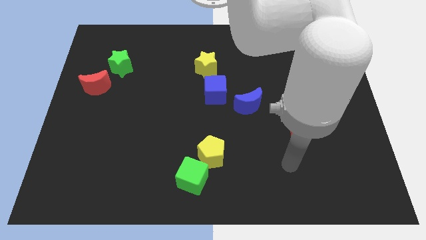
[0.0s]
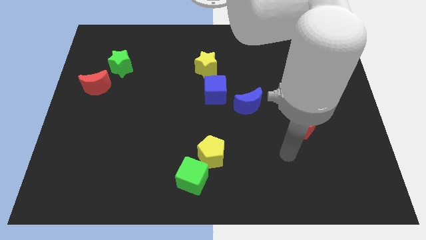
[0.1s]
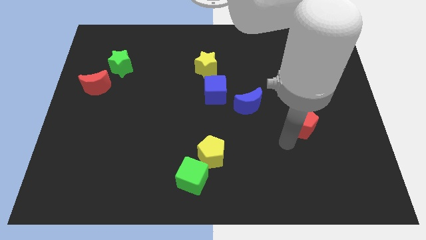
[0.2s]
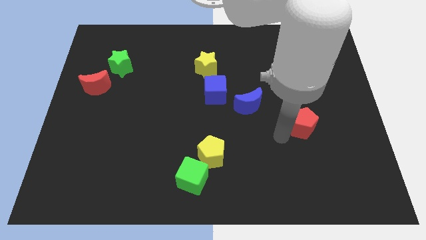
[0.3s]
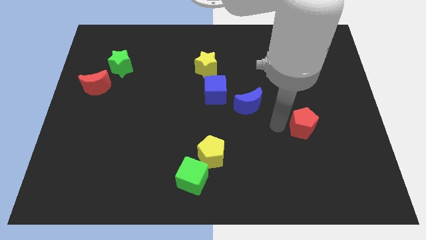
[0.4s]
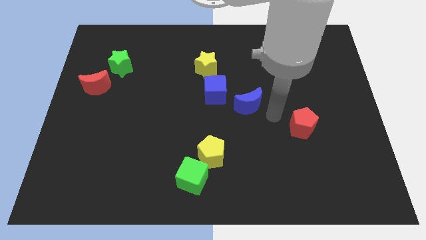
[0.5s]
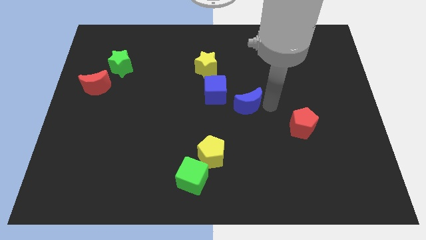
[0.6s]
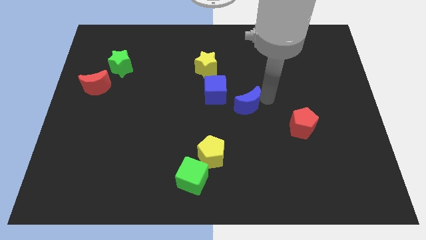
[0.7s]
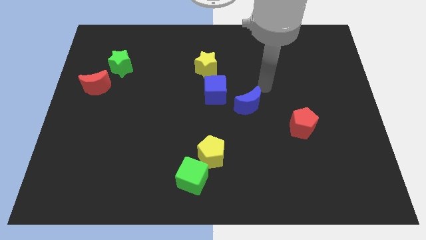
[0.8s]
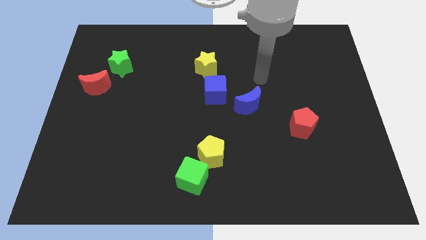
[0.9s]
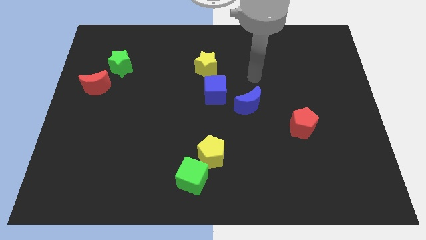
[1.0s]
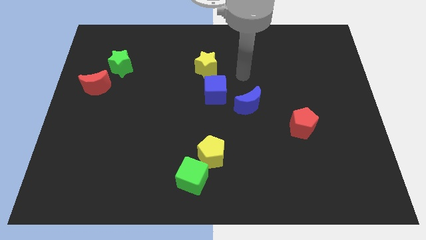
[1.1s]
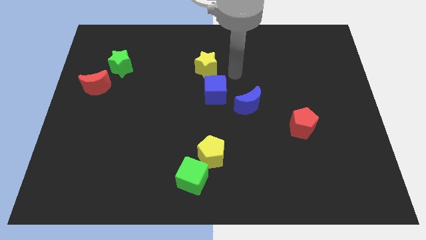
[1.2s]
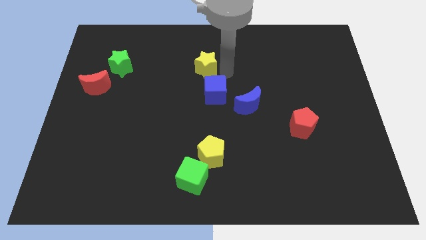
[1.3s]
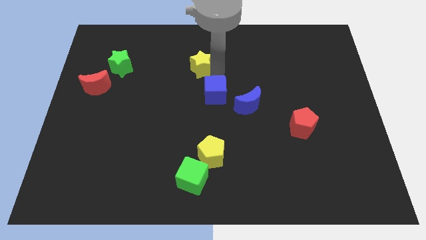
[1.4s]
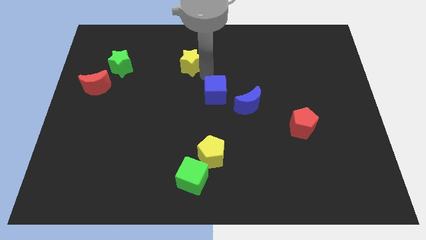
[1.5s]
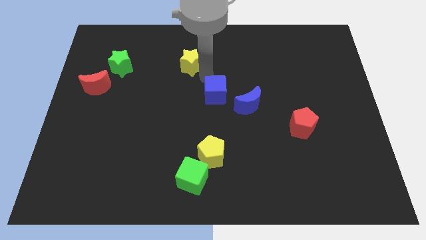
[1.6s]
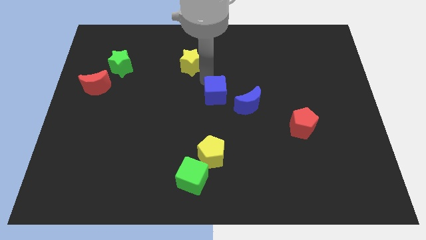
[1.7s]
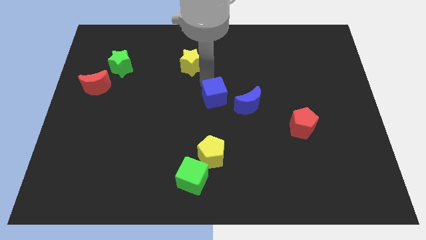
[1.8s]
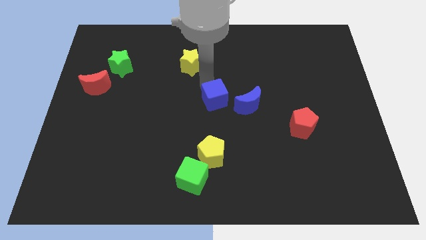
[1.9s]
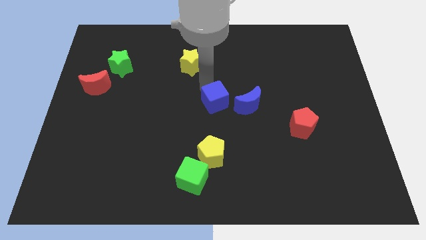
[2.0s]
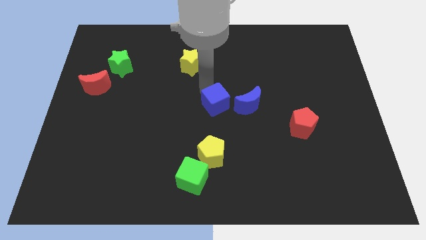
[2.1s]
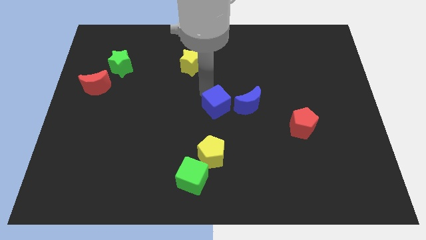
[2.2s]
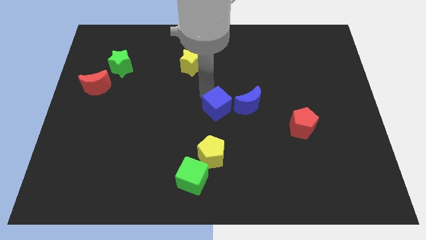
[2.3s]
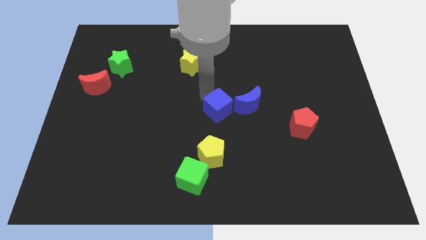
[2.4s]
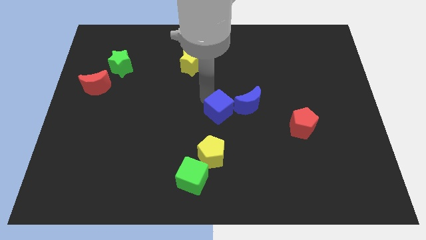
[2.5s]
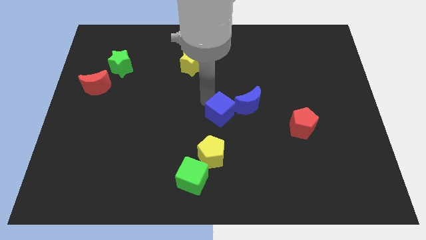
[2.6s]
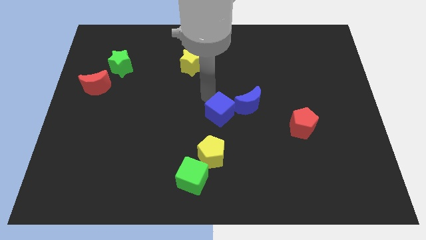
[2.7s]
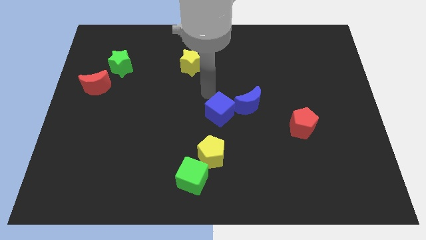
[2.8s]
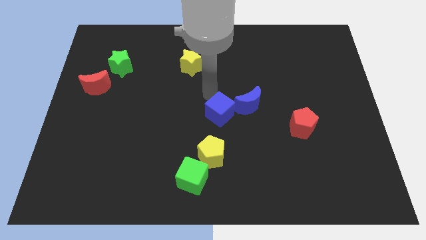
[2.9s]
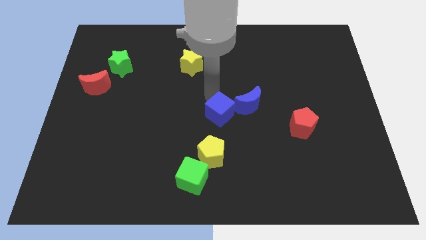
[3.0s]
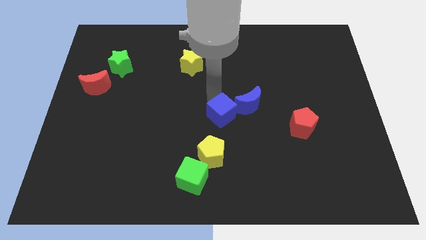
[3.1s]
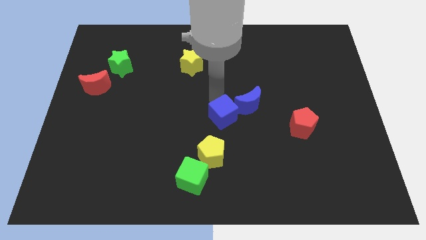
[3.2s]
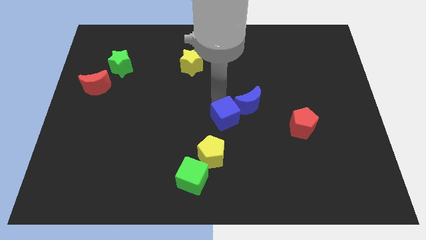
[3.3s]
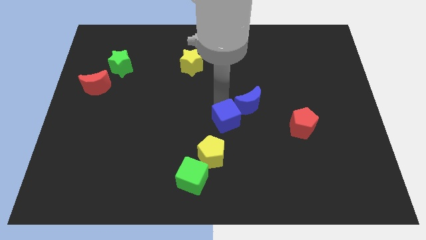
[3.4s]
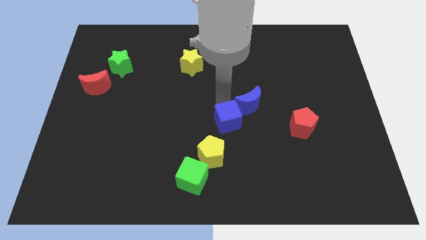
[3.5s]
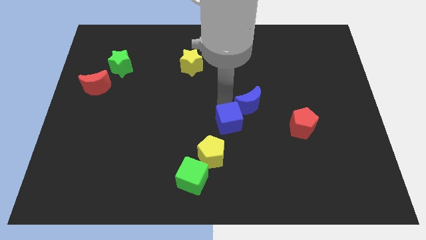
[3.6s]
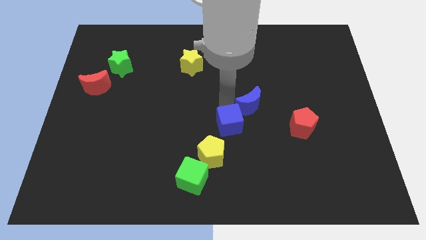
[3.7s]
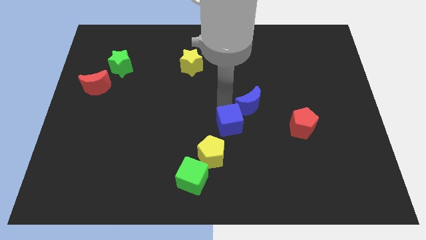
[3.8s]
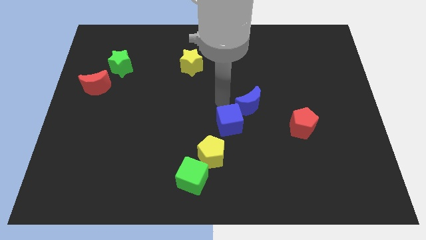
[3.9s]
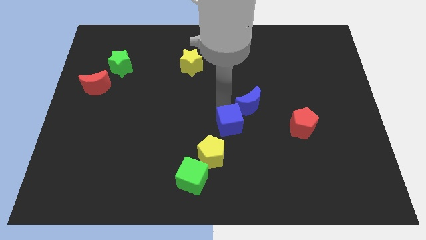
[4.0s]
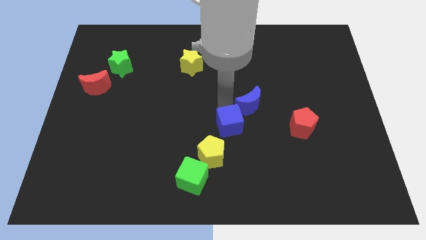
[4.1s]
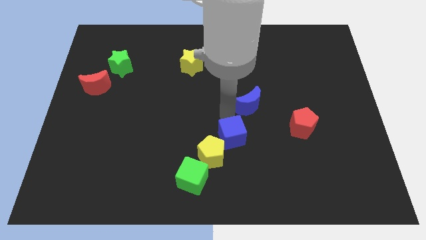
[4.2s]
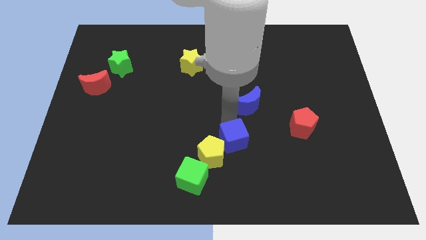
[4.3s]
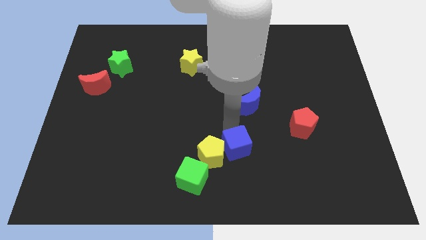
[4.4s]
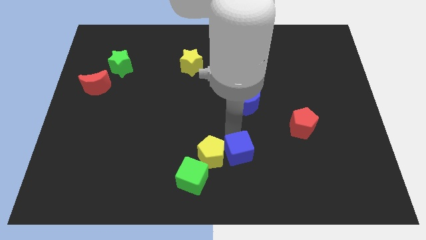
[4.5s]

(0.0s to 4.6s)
put the blue cube diagonally down and to the right of the yellow pentagon

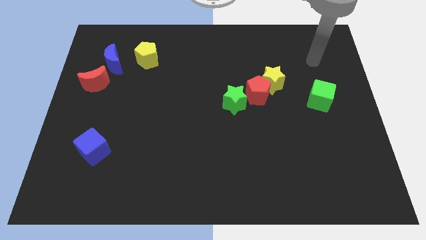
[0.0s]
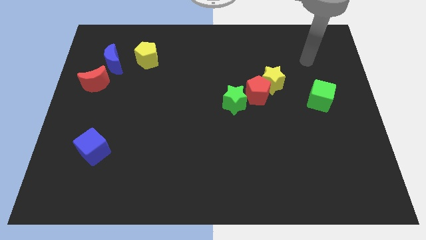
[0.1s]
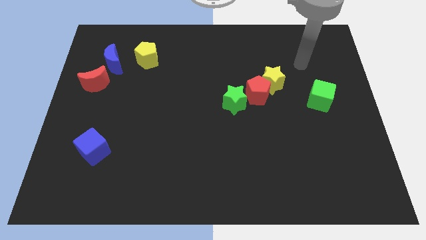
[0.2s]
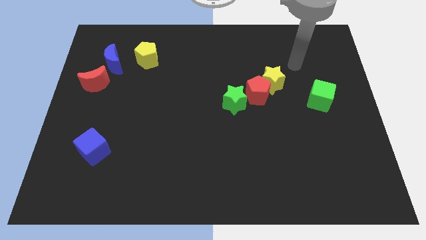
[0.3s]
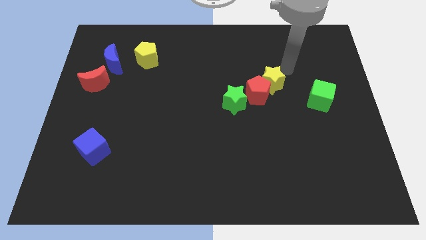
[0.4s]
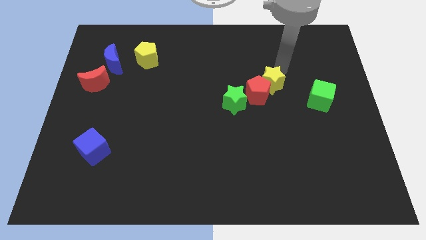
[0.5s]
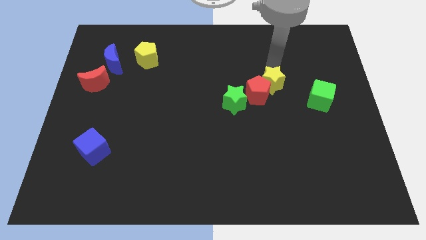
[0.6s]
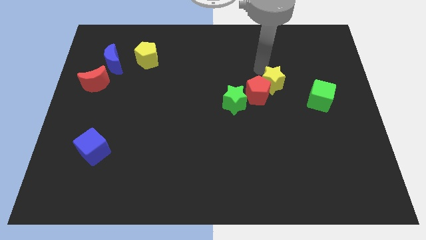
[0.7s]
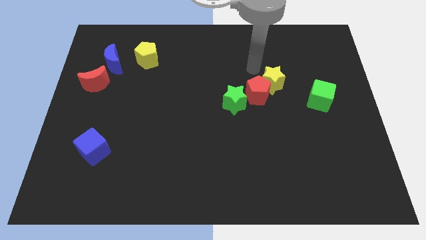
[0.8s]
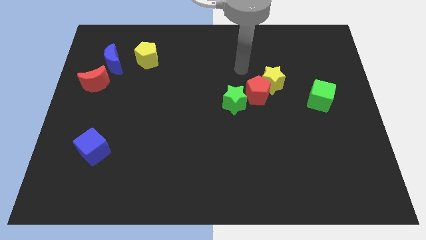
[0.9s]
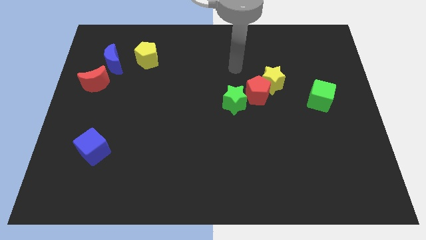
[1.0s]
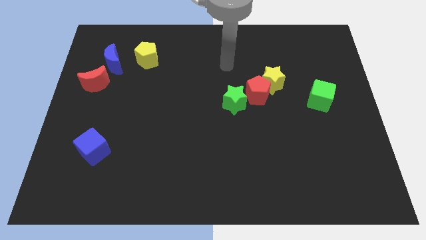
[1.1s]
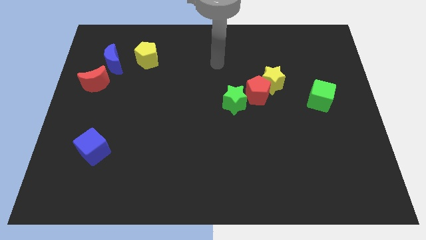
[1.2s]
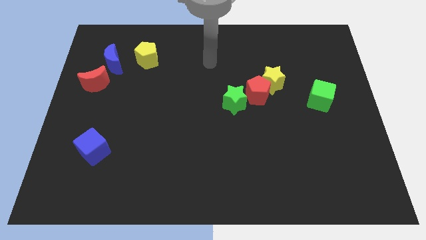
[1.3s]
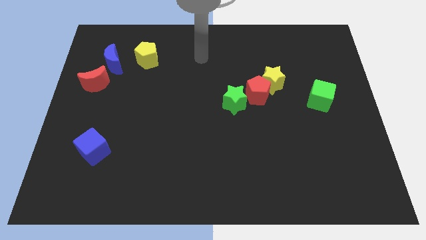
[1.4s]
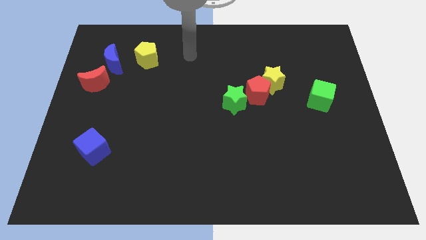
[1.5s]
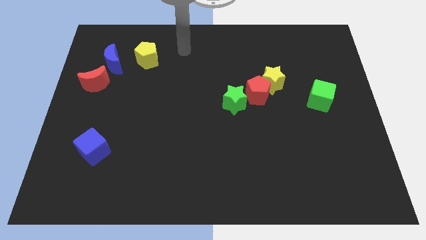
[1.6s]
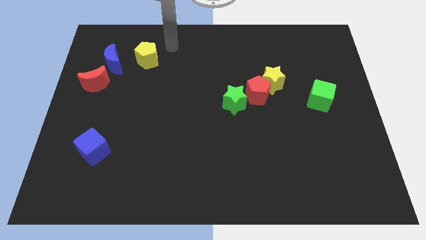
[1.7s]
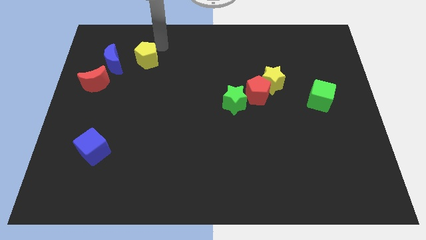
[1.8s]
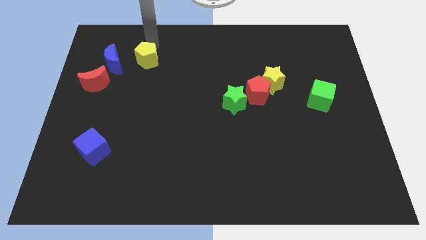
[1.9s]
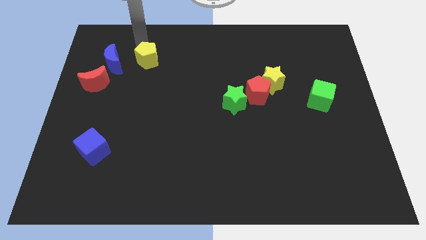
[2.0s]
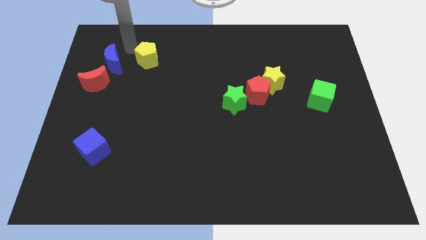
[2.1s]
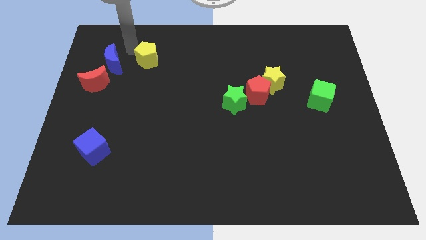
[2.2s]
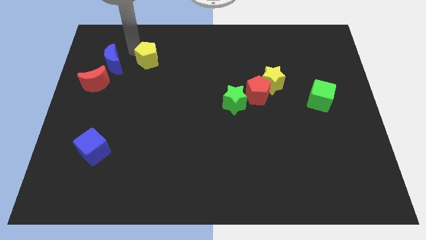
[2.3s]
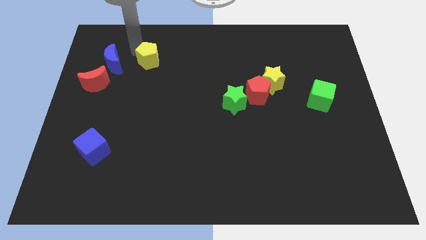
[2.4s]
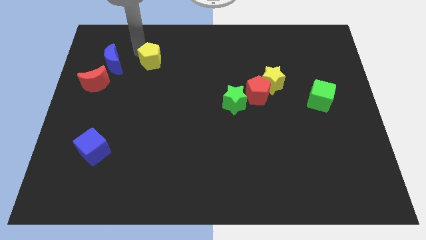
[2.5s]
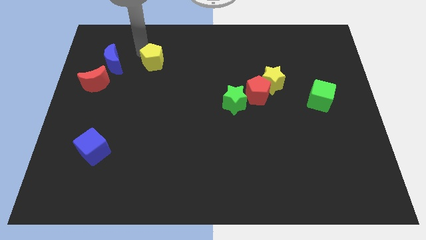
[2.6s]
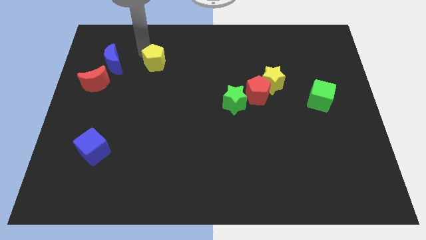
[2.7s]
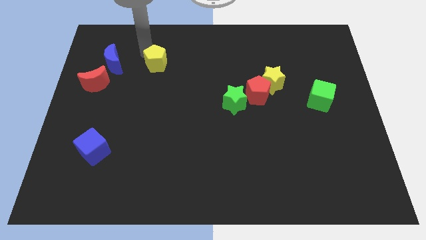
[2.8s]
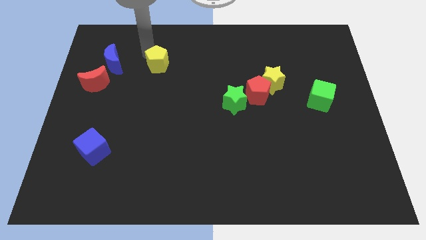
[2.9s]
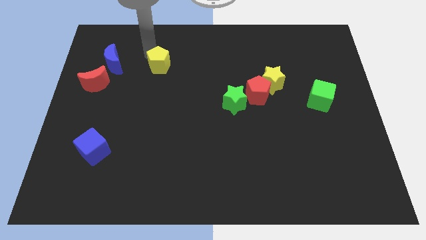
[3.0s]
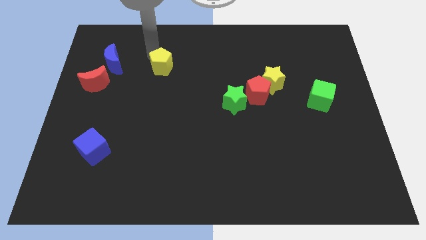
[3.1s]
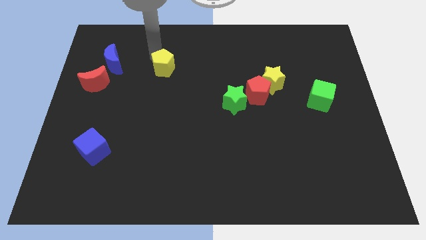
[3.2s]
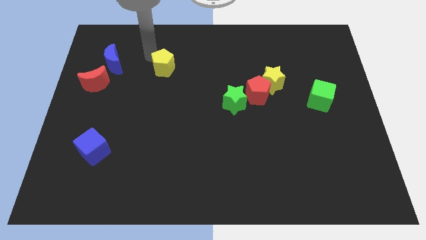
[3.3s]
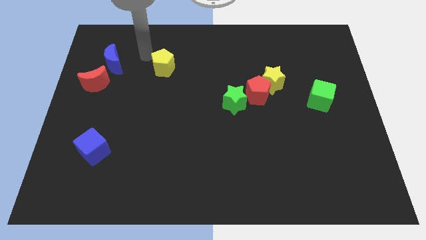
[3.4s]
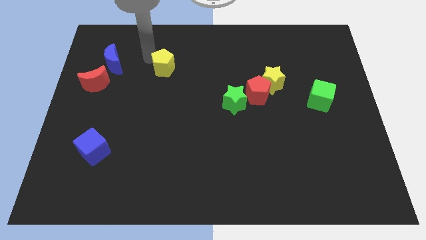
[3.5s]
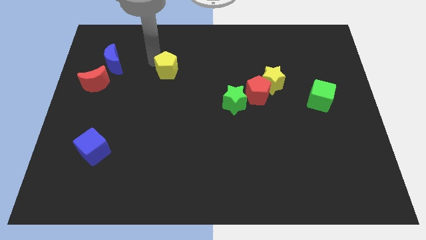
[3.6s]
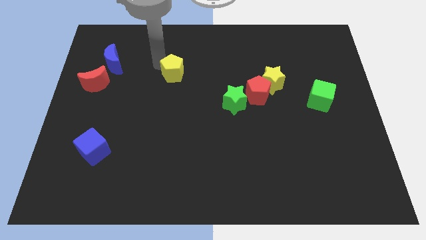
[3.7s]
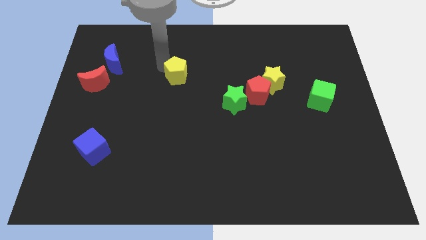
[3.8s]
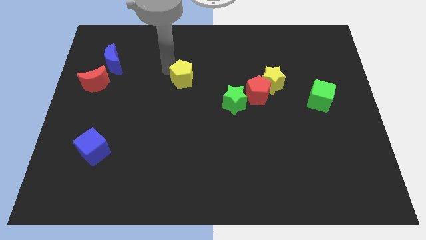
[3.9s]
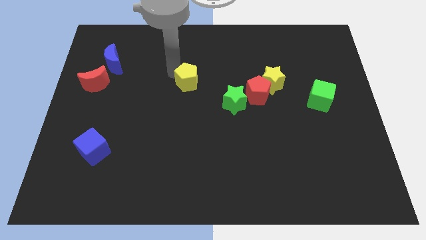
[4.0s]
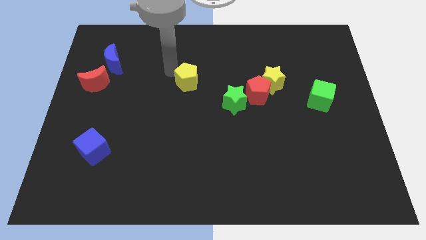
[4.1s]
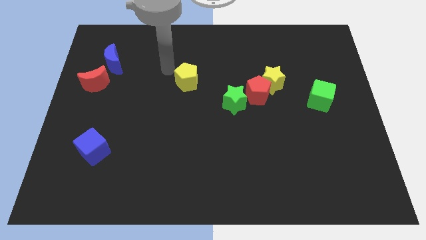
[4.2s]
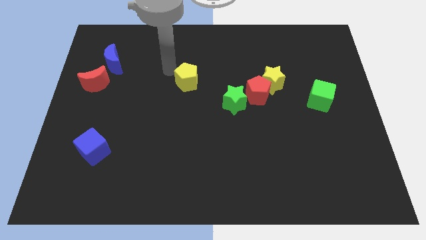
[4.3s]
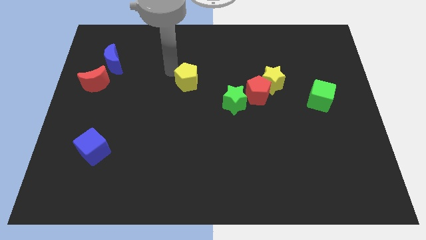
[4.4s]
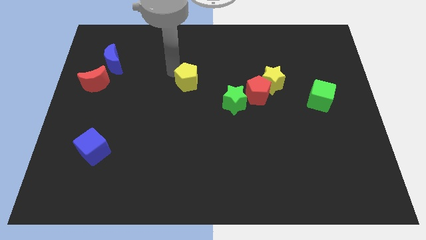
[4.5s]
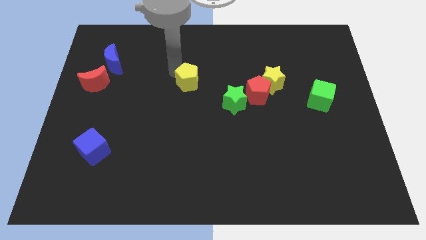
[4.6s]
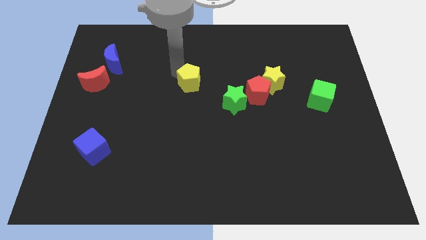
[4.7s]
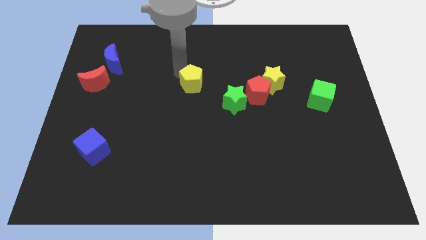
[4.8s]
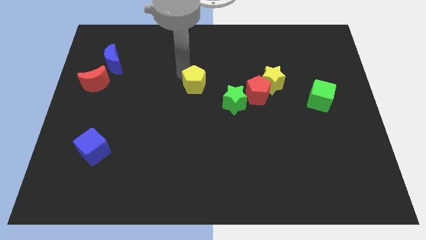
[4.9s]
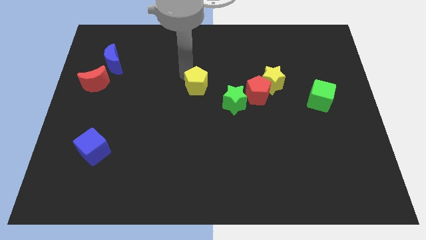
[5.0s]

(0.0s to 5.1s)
slide the yellow pentagon to the left side of the red pentagon
